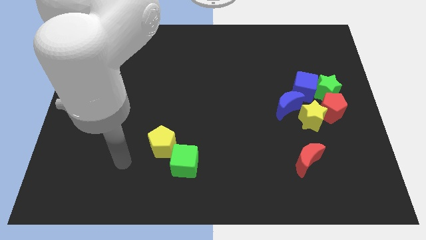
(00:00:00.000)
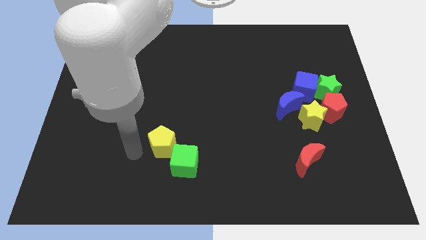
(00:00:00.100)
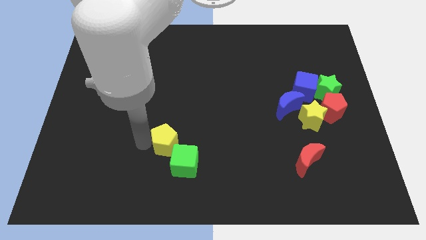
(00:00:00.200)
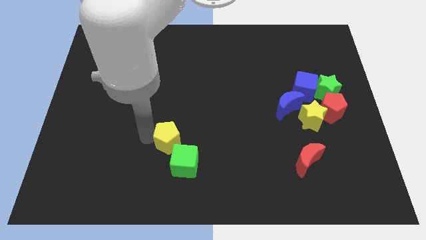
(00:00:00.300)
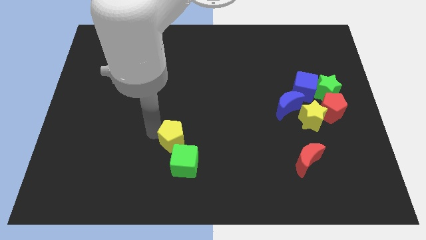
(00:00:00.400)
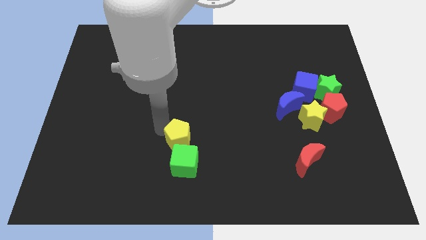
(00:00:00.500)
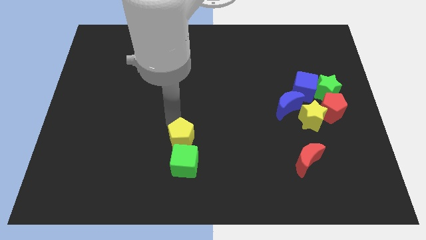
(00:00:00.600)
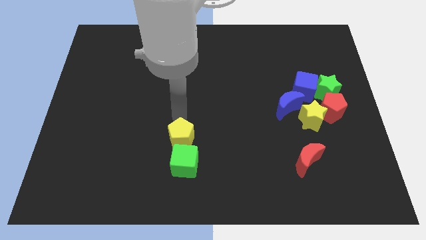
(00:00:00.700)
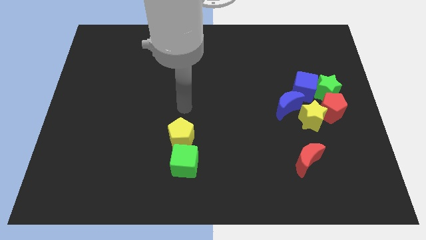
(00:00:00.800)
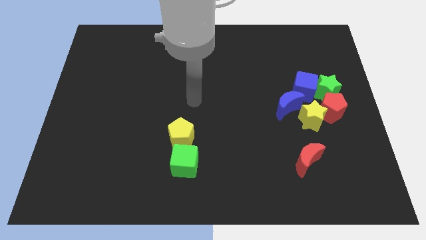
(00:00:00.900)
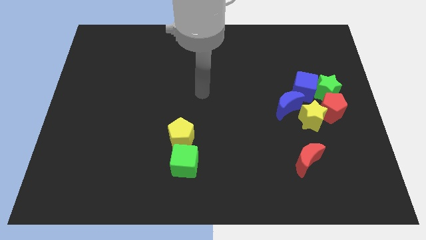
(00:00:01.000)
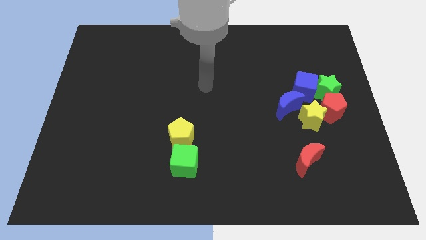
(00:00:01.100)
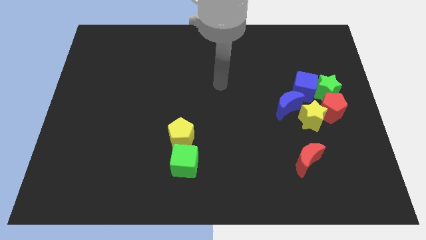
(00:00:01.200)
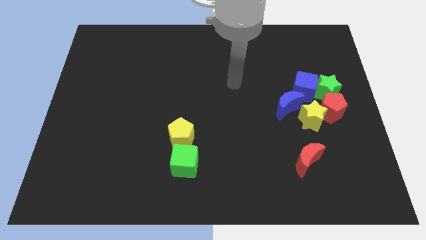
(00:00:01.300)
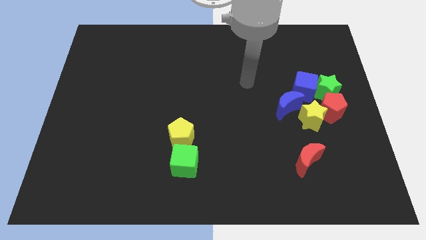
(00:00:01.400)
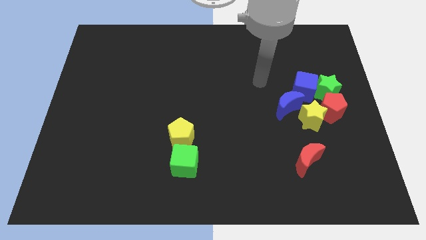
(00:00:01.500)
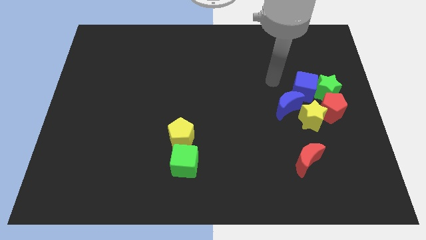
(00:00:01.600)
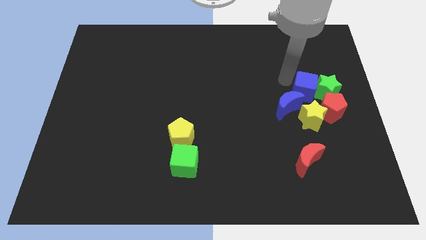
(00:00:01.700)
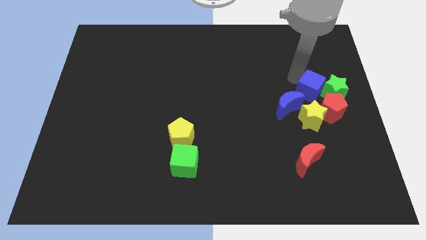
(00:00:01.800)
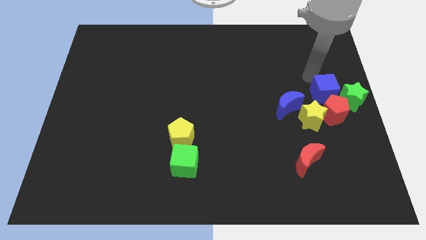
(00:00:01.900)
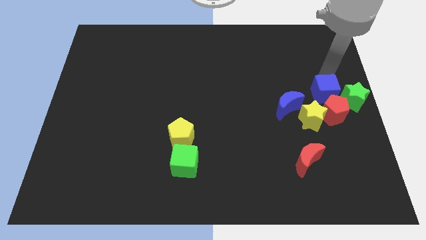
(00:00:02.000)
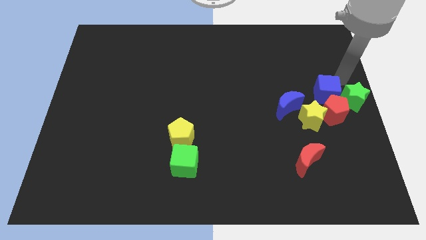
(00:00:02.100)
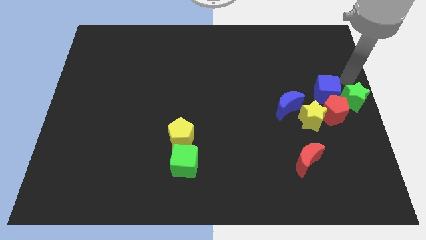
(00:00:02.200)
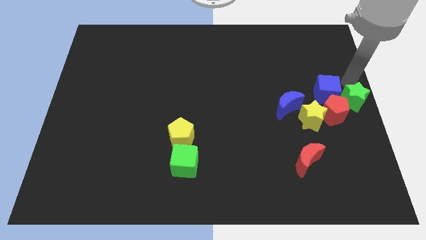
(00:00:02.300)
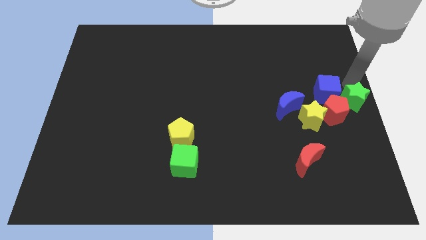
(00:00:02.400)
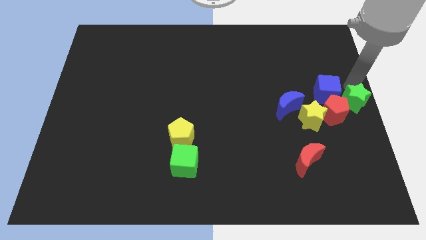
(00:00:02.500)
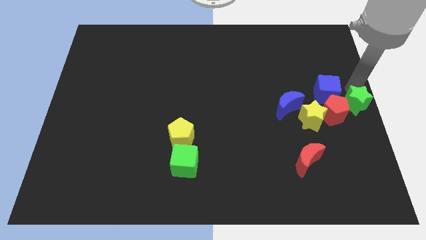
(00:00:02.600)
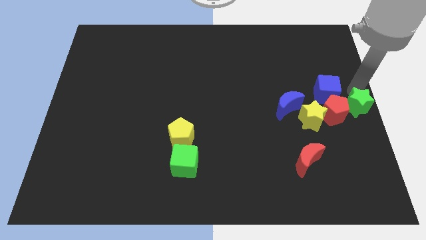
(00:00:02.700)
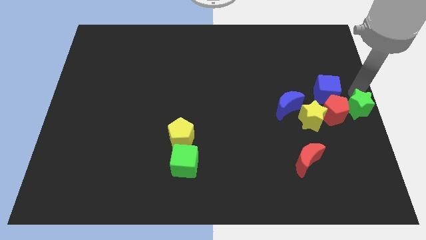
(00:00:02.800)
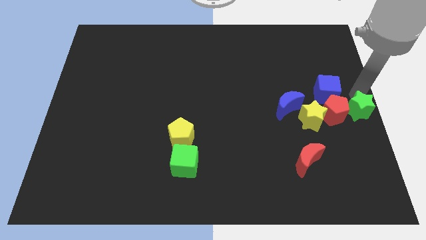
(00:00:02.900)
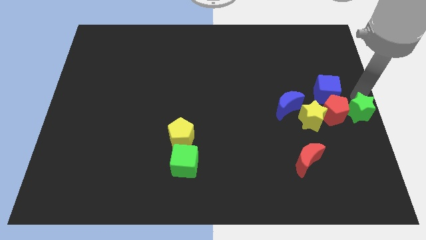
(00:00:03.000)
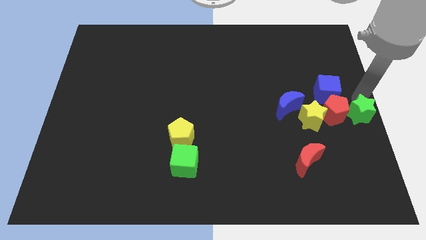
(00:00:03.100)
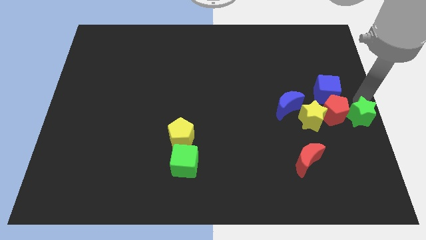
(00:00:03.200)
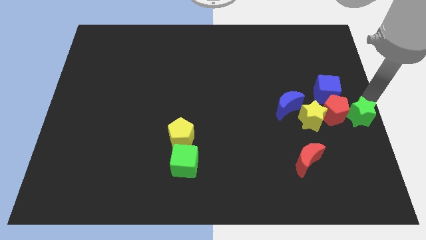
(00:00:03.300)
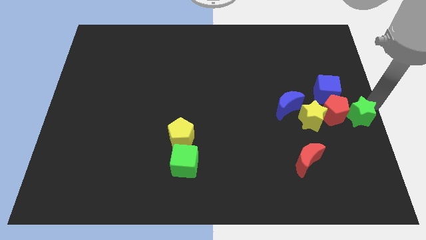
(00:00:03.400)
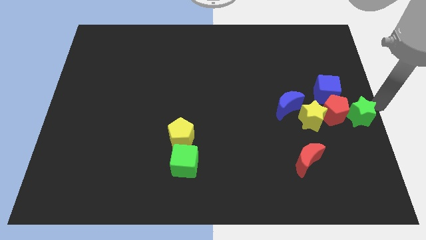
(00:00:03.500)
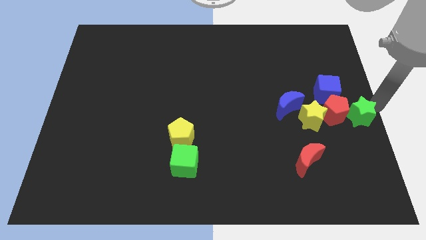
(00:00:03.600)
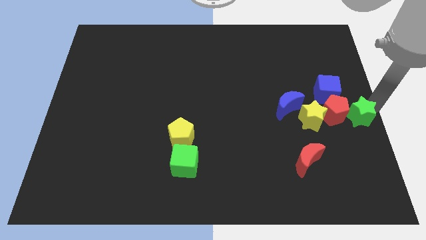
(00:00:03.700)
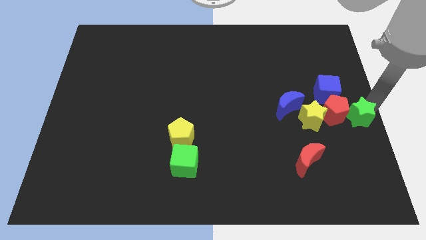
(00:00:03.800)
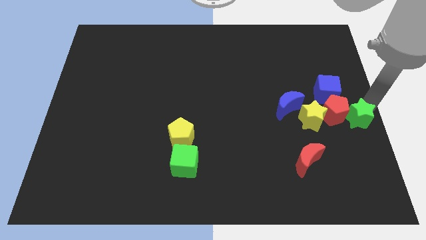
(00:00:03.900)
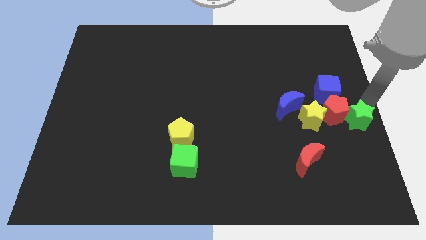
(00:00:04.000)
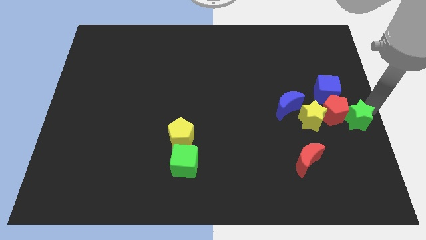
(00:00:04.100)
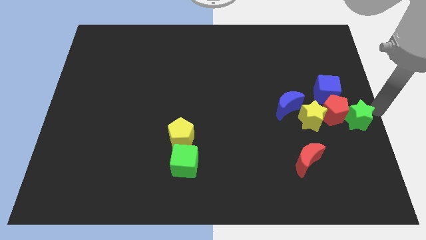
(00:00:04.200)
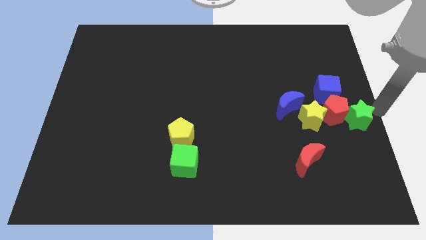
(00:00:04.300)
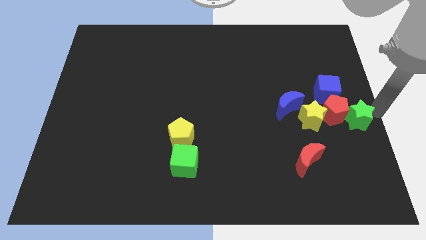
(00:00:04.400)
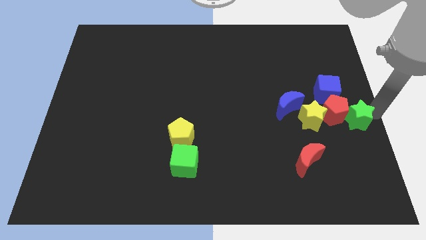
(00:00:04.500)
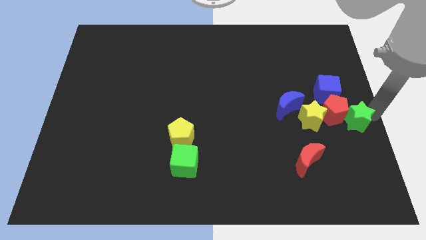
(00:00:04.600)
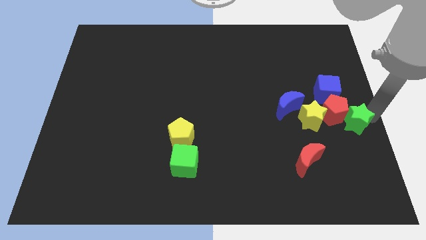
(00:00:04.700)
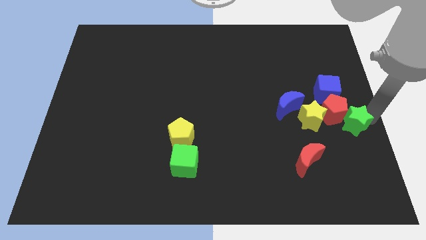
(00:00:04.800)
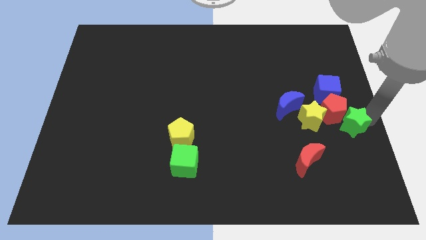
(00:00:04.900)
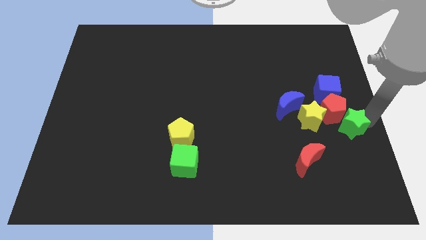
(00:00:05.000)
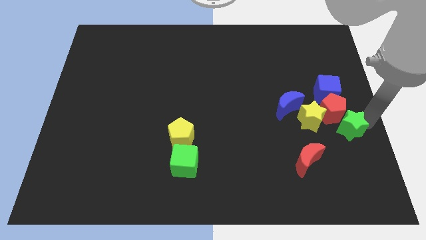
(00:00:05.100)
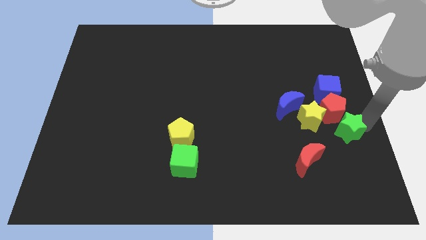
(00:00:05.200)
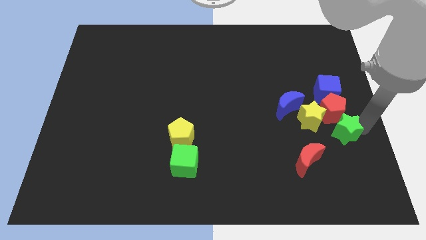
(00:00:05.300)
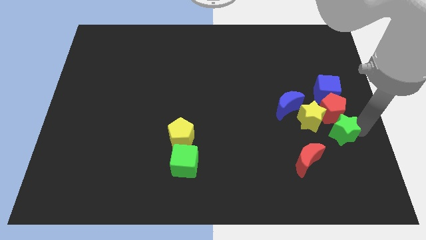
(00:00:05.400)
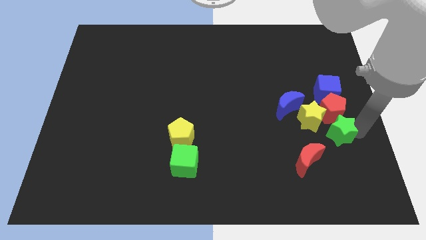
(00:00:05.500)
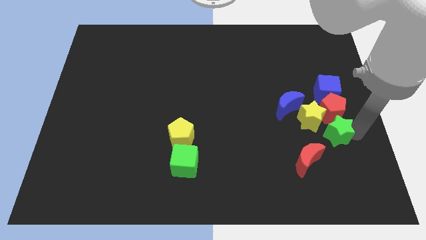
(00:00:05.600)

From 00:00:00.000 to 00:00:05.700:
push the green star to the bottom right of the blue moon

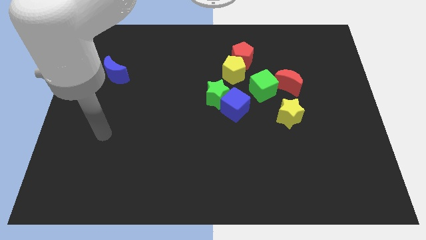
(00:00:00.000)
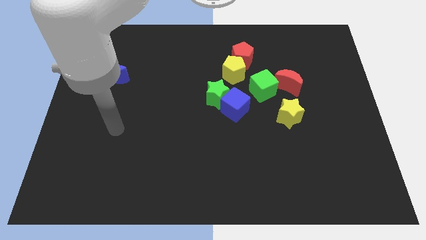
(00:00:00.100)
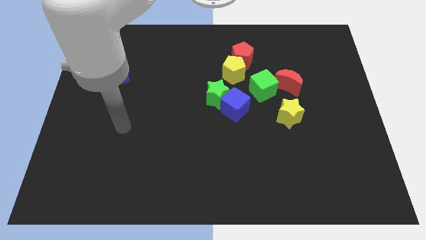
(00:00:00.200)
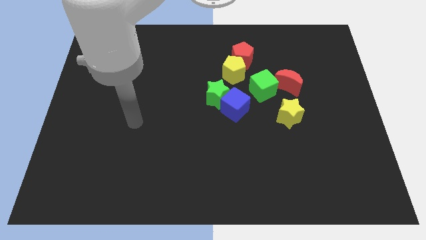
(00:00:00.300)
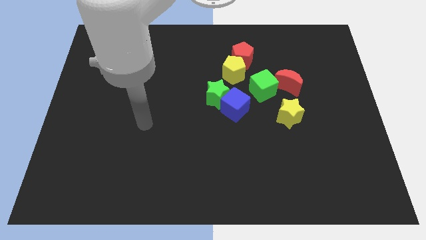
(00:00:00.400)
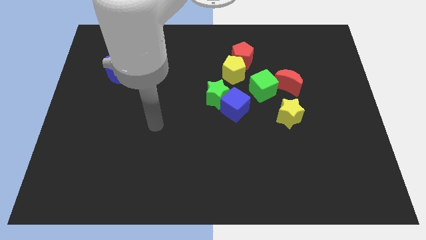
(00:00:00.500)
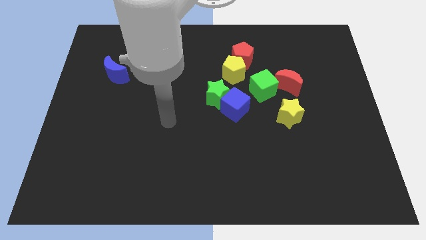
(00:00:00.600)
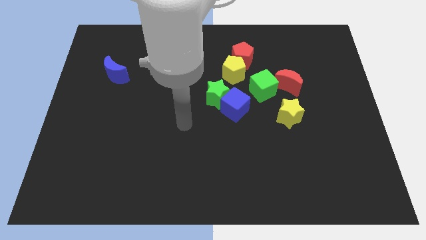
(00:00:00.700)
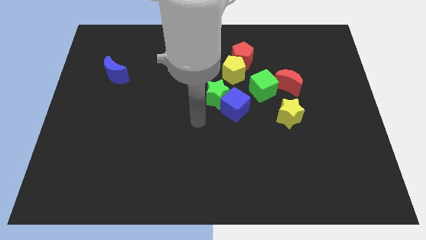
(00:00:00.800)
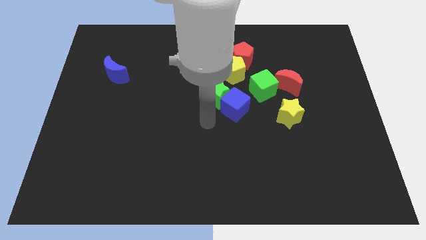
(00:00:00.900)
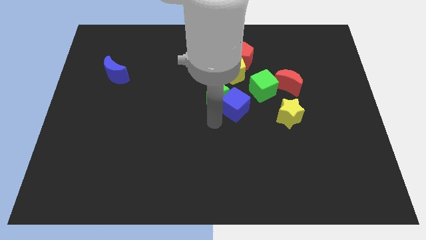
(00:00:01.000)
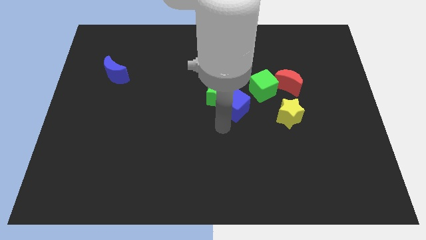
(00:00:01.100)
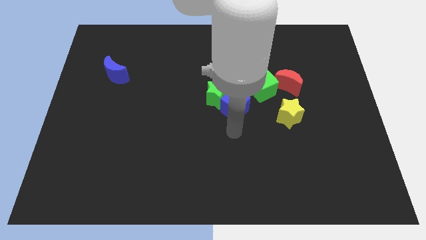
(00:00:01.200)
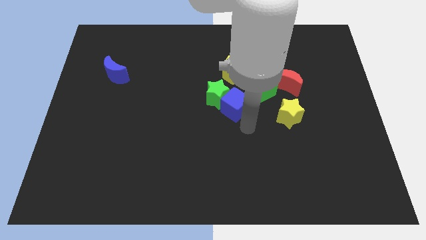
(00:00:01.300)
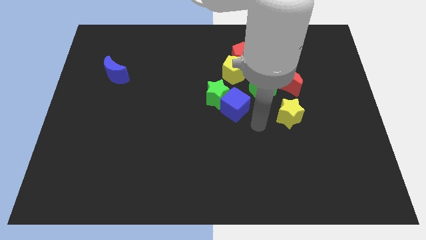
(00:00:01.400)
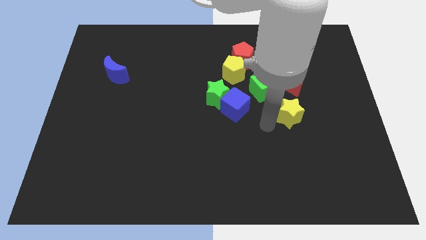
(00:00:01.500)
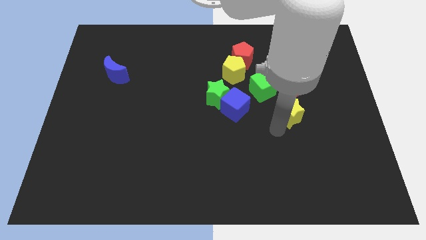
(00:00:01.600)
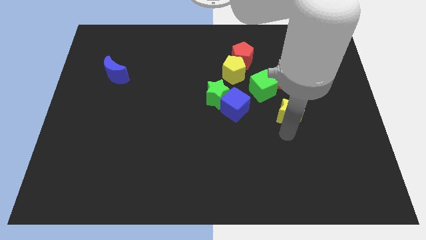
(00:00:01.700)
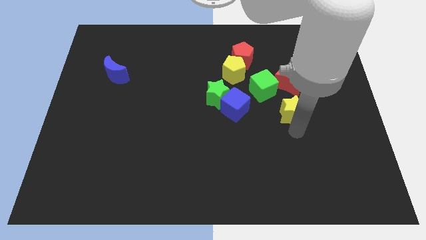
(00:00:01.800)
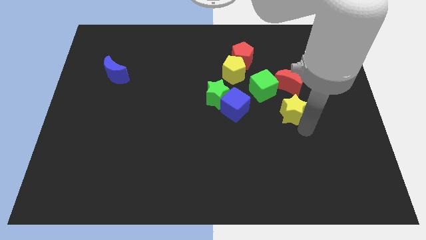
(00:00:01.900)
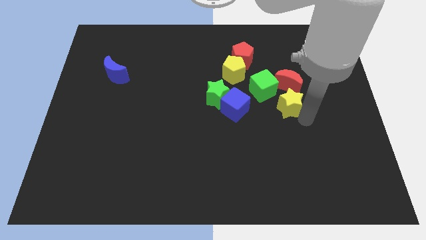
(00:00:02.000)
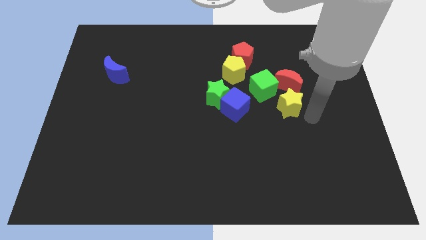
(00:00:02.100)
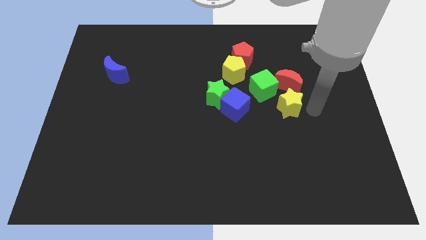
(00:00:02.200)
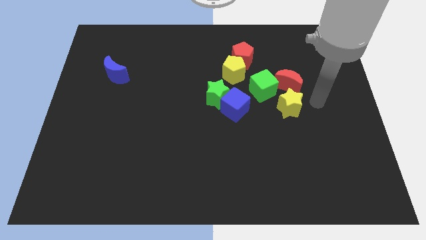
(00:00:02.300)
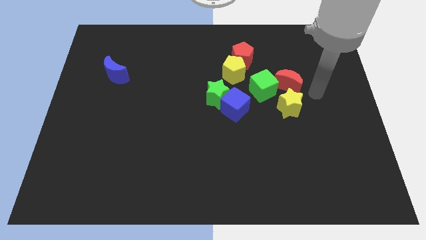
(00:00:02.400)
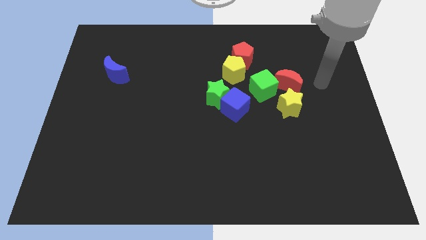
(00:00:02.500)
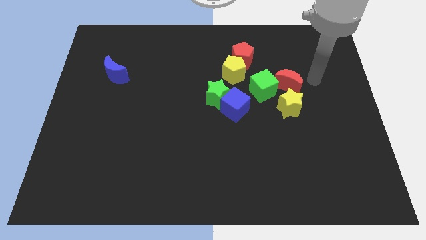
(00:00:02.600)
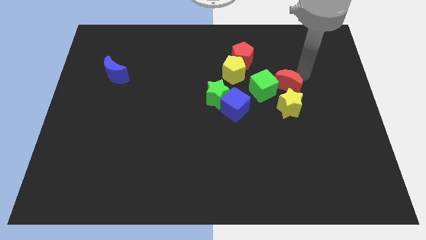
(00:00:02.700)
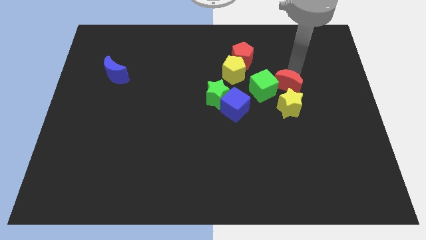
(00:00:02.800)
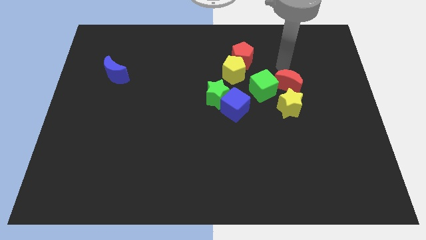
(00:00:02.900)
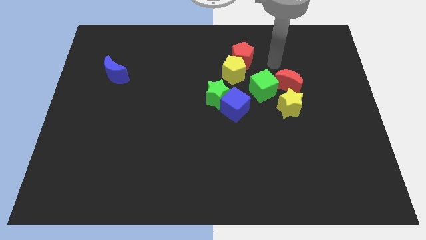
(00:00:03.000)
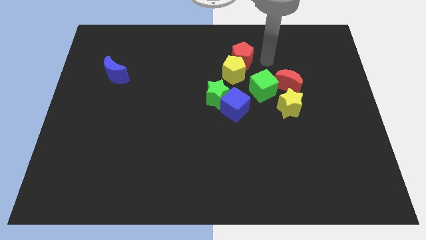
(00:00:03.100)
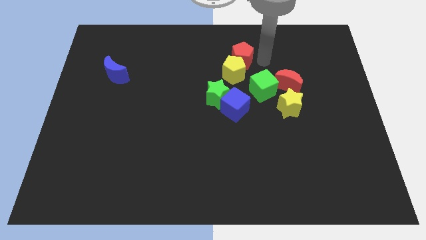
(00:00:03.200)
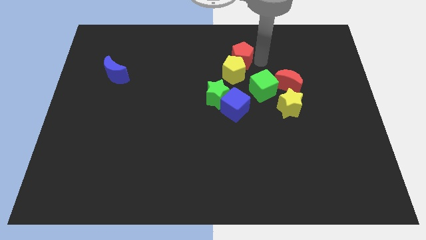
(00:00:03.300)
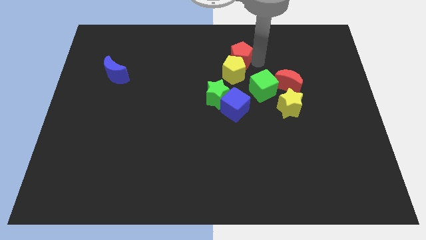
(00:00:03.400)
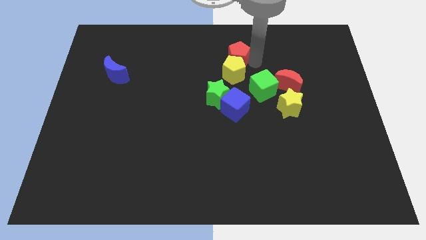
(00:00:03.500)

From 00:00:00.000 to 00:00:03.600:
move the red pentagon to the top left of the yellow pentagon
